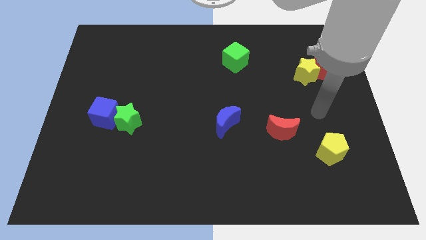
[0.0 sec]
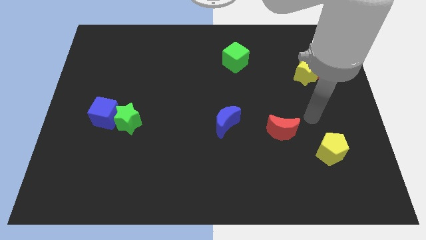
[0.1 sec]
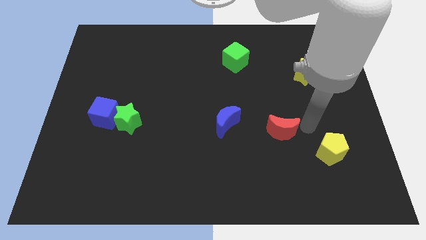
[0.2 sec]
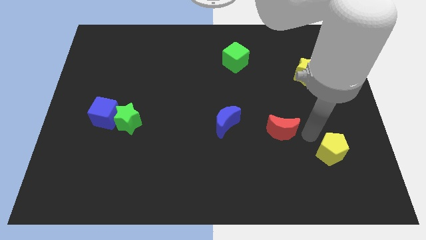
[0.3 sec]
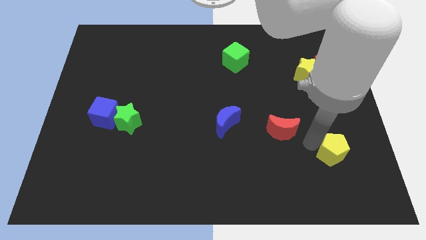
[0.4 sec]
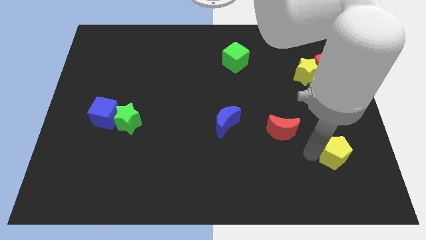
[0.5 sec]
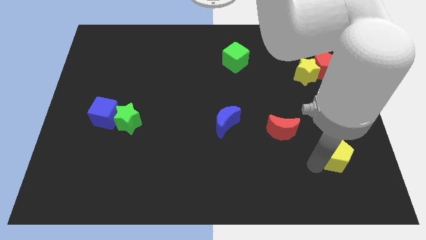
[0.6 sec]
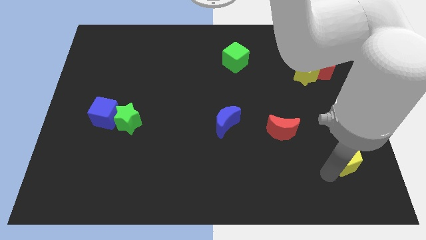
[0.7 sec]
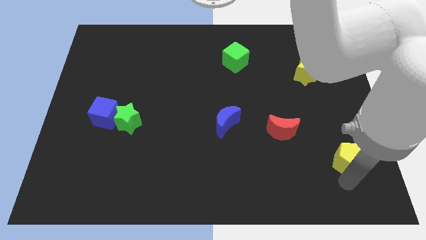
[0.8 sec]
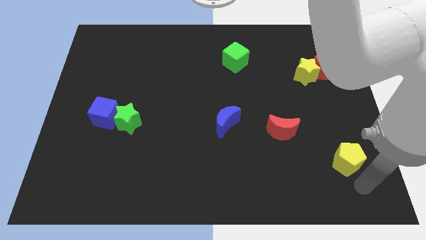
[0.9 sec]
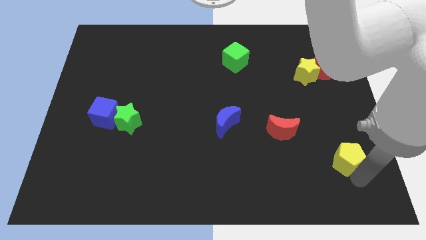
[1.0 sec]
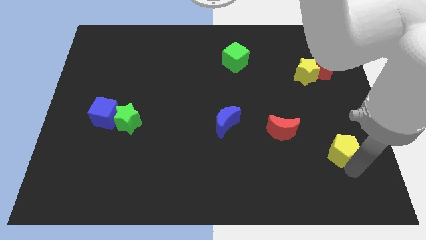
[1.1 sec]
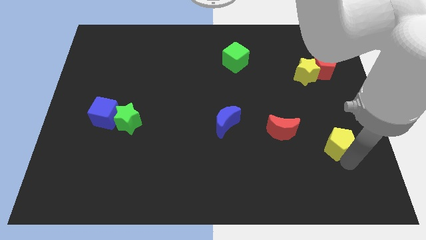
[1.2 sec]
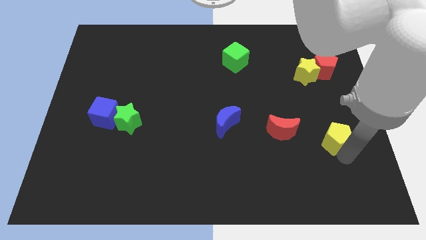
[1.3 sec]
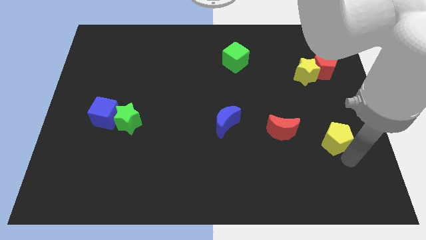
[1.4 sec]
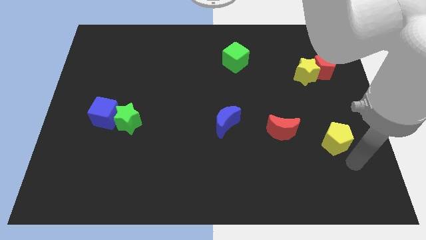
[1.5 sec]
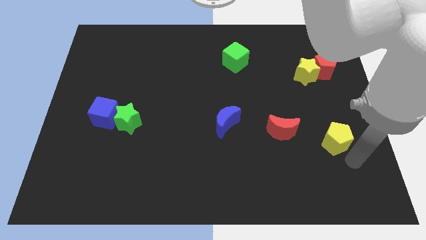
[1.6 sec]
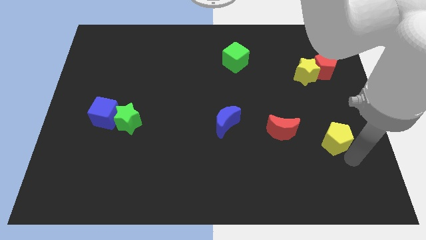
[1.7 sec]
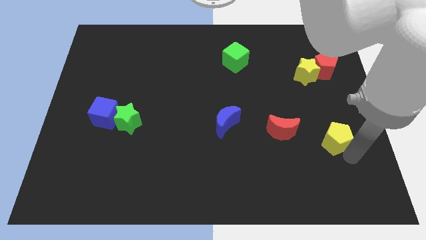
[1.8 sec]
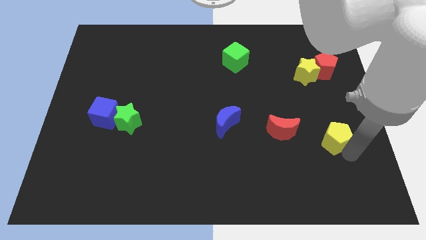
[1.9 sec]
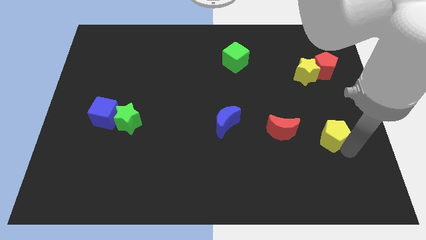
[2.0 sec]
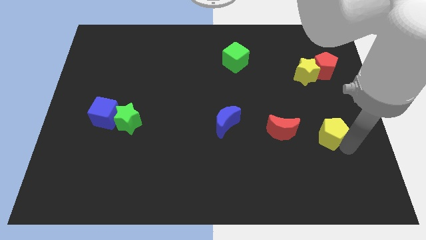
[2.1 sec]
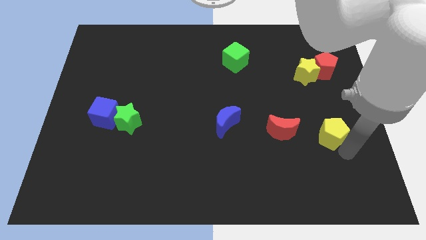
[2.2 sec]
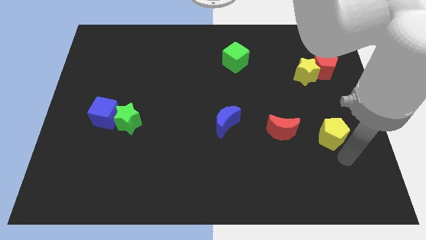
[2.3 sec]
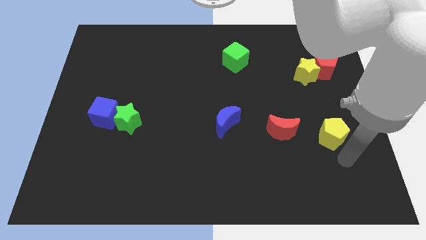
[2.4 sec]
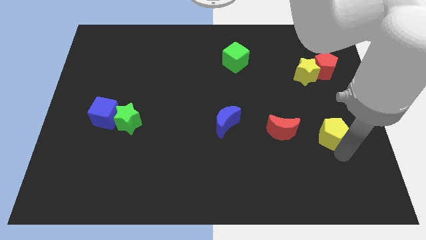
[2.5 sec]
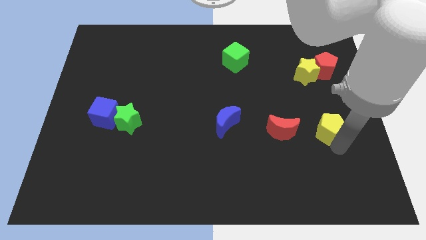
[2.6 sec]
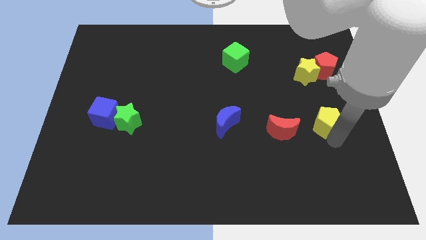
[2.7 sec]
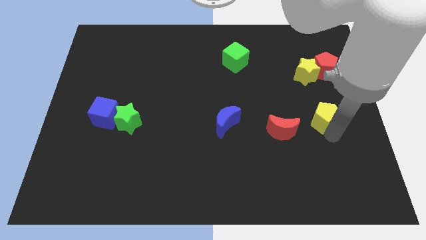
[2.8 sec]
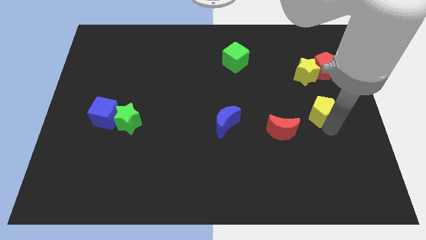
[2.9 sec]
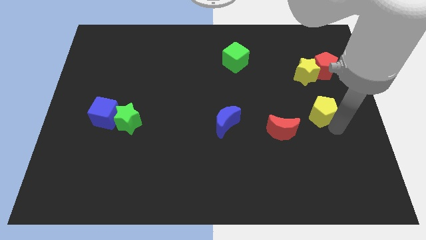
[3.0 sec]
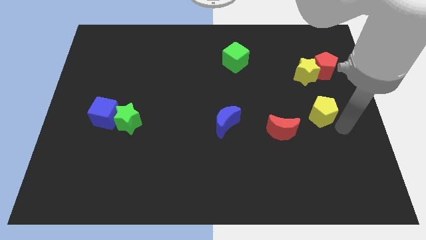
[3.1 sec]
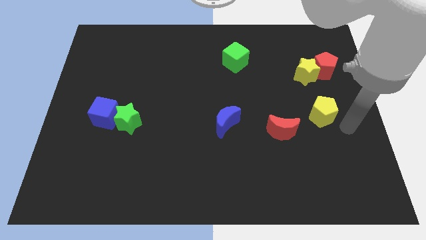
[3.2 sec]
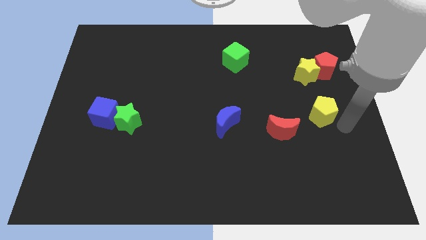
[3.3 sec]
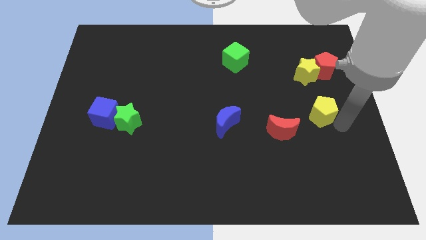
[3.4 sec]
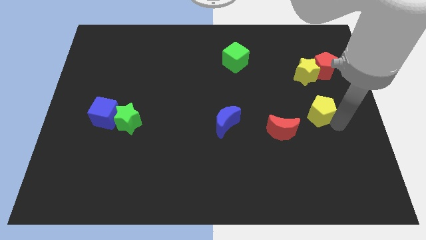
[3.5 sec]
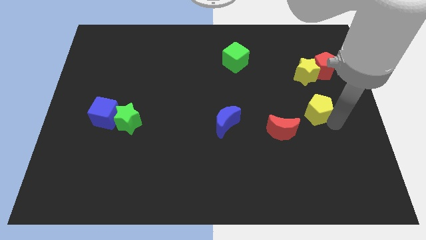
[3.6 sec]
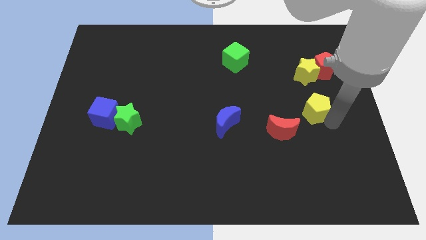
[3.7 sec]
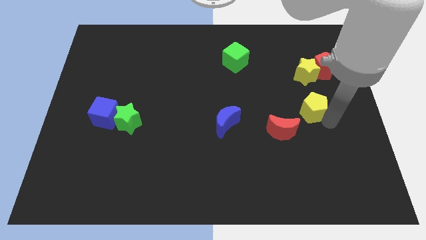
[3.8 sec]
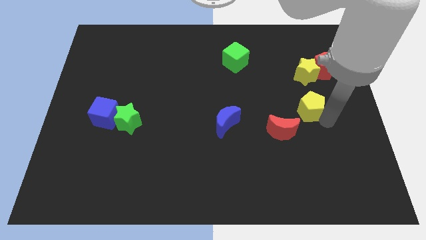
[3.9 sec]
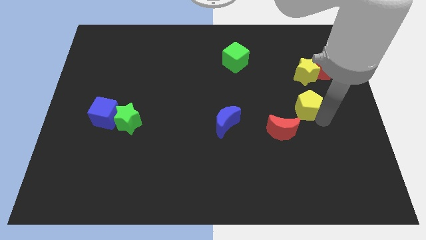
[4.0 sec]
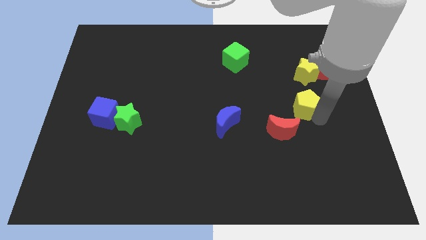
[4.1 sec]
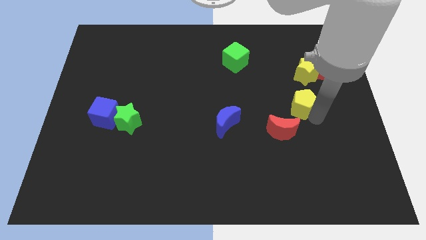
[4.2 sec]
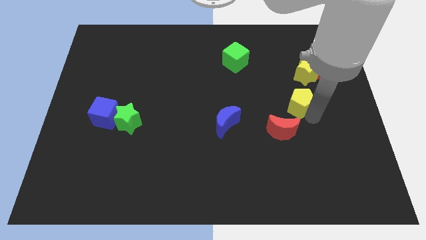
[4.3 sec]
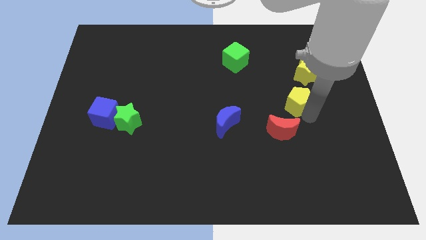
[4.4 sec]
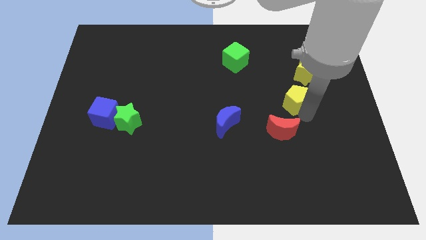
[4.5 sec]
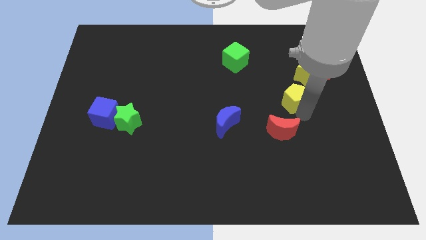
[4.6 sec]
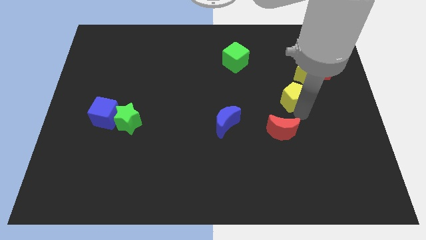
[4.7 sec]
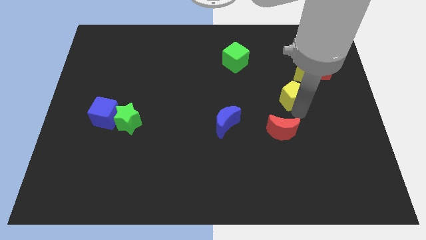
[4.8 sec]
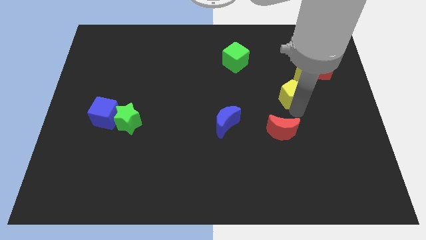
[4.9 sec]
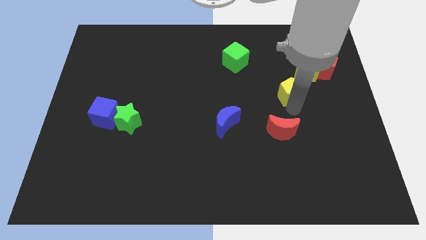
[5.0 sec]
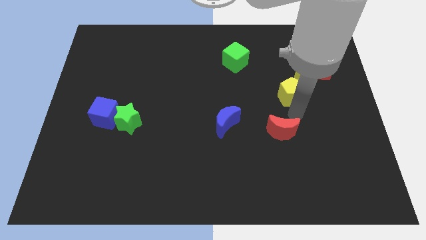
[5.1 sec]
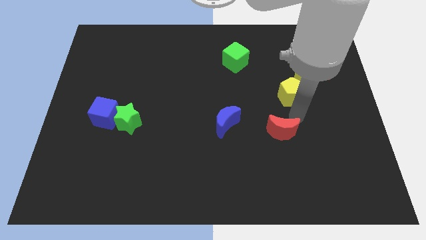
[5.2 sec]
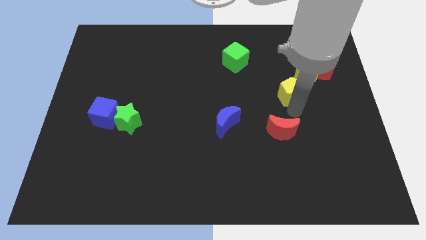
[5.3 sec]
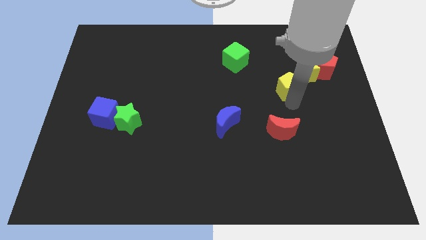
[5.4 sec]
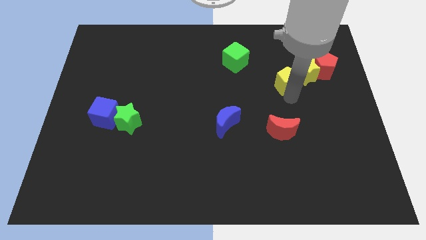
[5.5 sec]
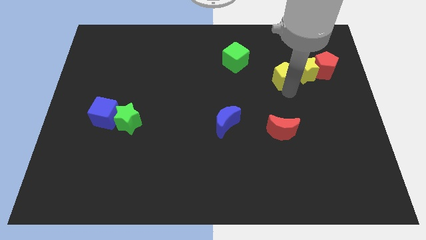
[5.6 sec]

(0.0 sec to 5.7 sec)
move the yellow pentagon just left of the red pentagon

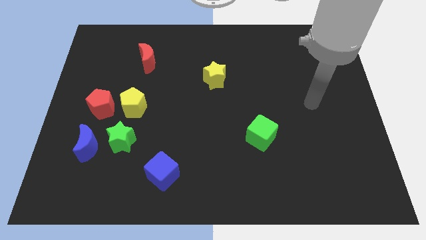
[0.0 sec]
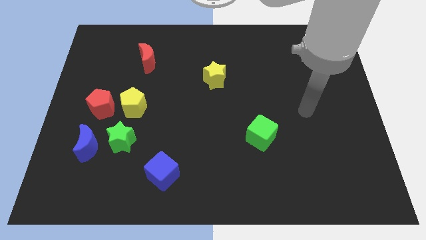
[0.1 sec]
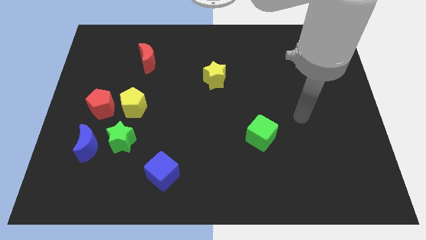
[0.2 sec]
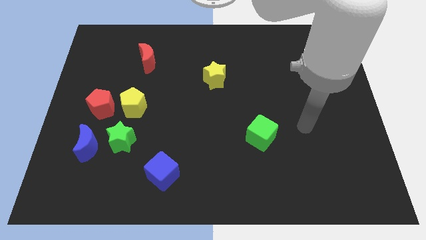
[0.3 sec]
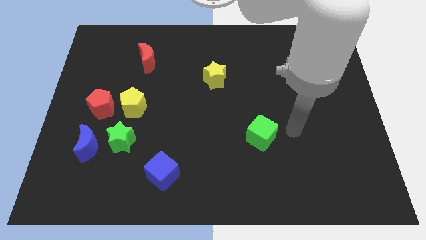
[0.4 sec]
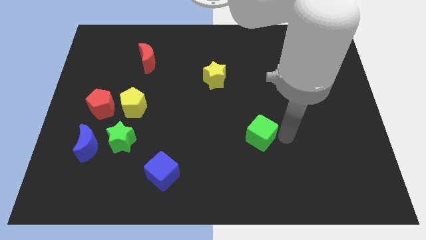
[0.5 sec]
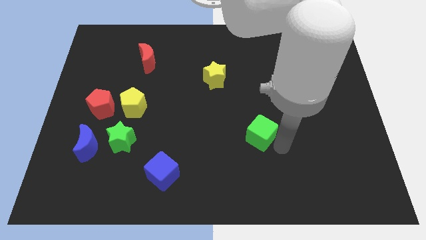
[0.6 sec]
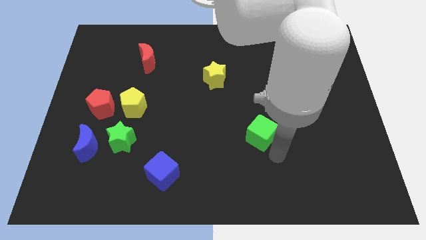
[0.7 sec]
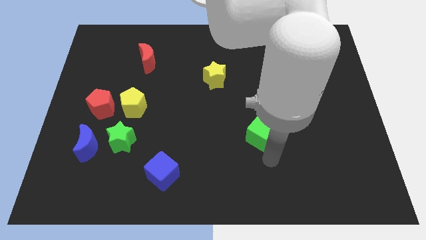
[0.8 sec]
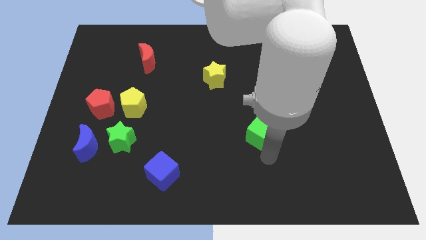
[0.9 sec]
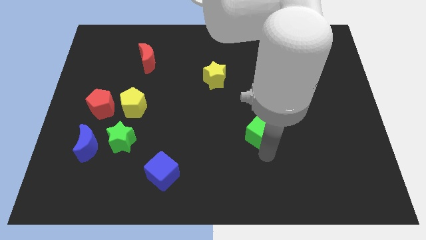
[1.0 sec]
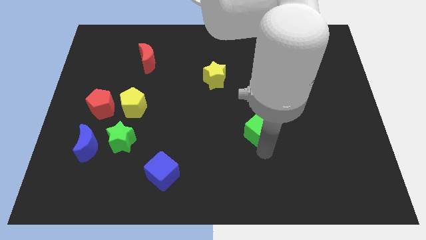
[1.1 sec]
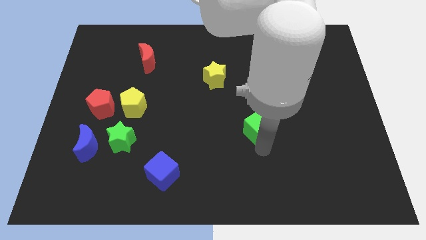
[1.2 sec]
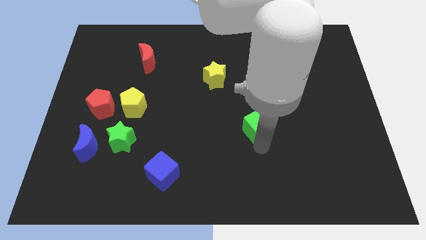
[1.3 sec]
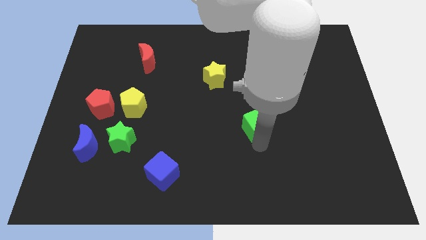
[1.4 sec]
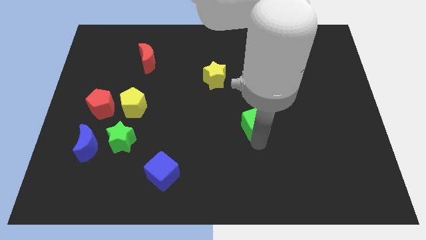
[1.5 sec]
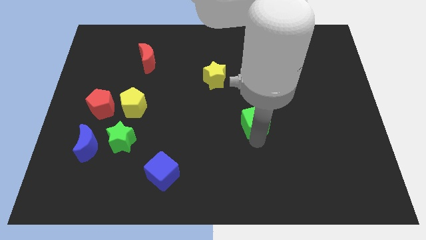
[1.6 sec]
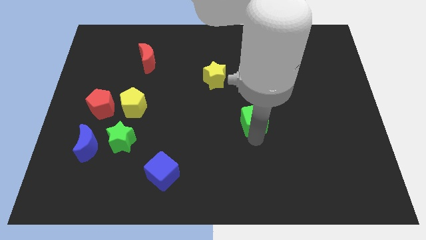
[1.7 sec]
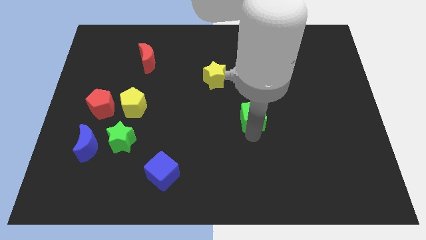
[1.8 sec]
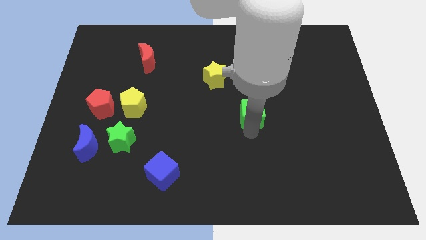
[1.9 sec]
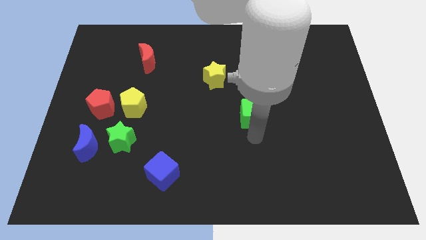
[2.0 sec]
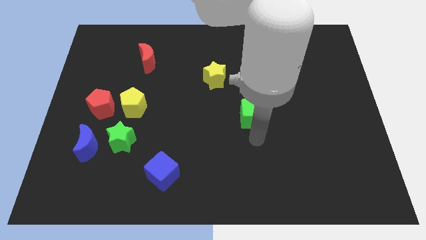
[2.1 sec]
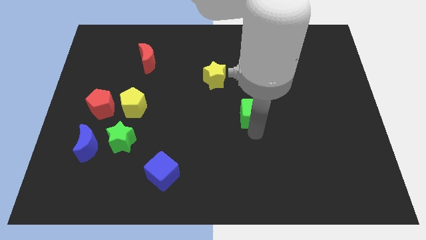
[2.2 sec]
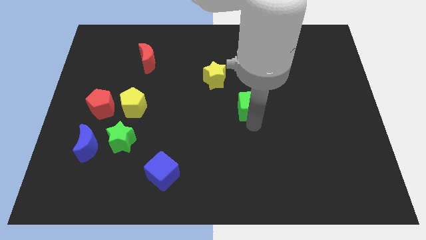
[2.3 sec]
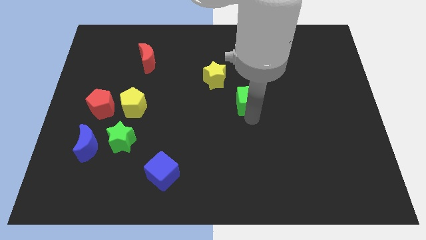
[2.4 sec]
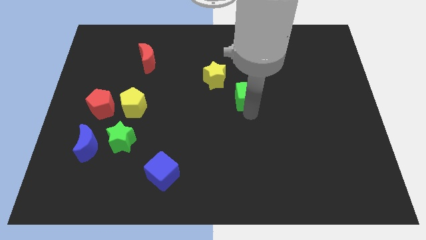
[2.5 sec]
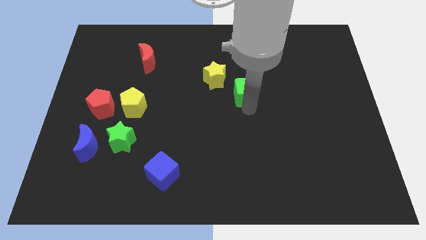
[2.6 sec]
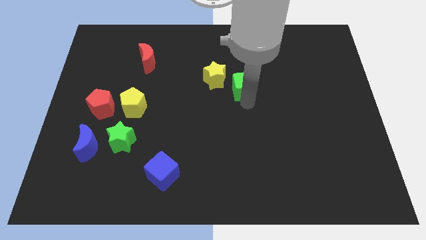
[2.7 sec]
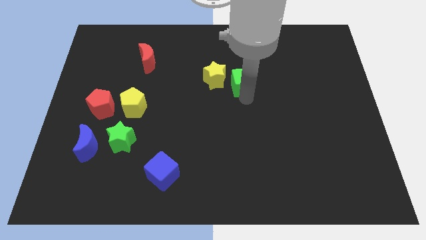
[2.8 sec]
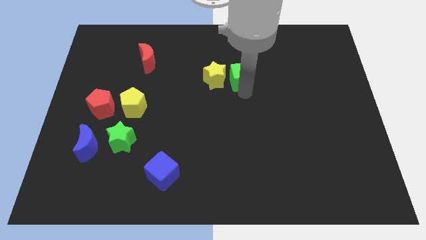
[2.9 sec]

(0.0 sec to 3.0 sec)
put the green cube to the top right of the yellow star
